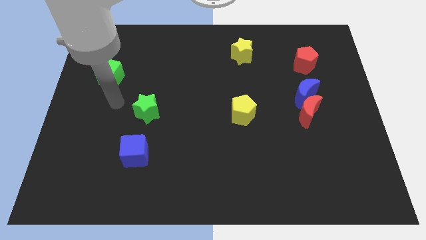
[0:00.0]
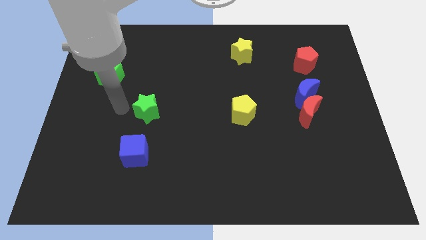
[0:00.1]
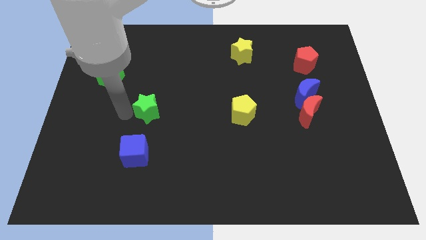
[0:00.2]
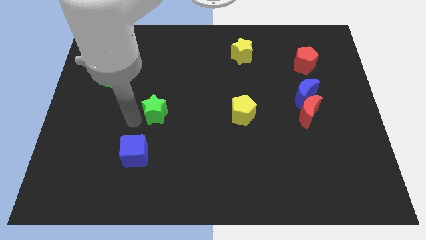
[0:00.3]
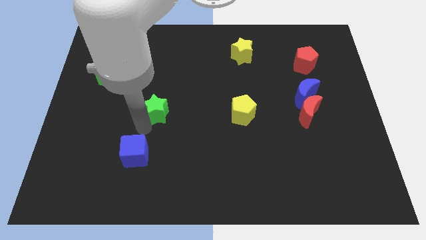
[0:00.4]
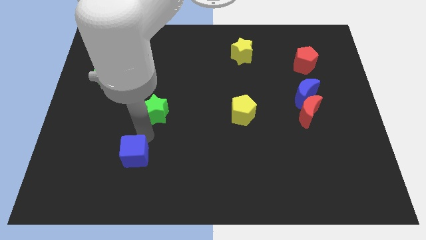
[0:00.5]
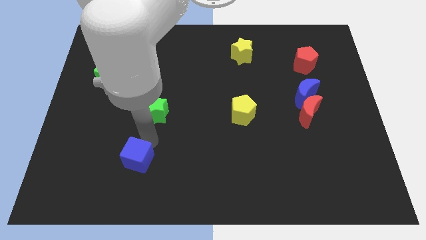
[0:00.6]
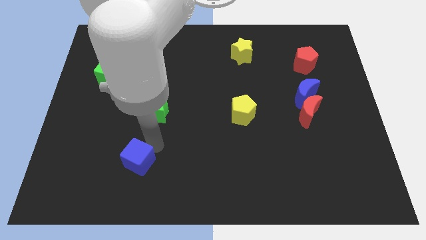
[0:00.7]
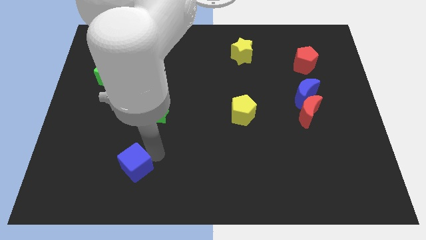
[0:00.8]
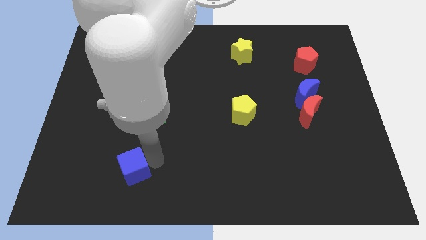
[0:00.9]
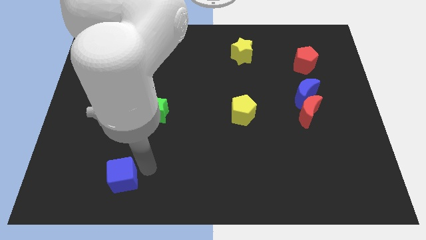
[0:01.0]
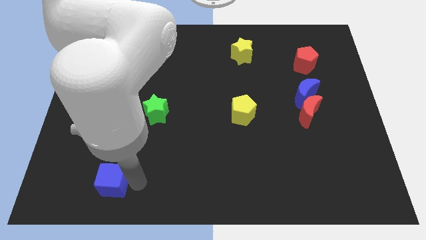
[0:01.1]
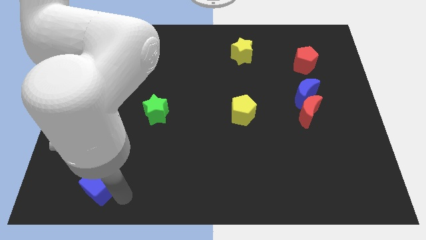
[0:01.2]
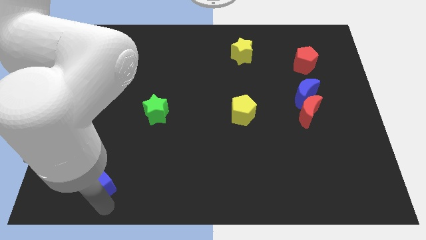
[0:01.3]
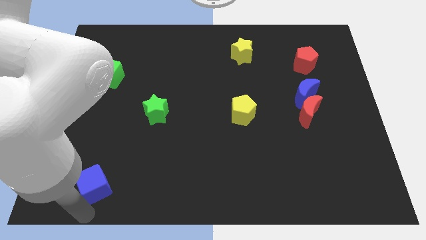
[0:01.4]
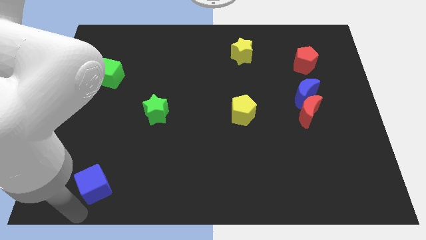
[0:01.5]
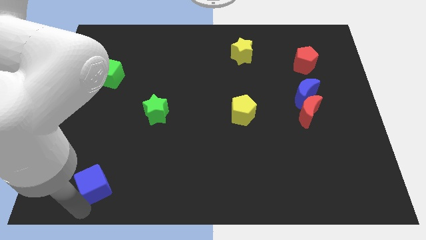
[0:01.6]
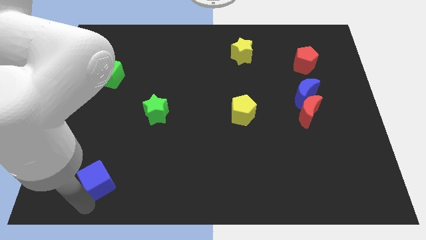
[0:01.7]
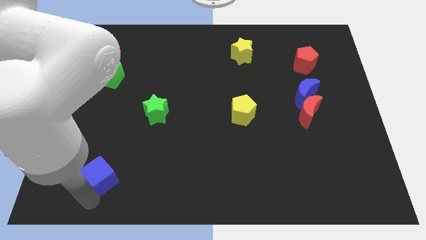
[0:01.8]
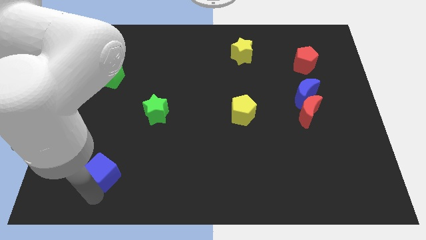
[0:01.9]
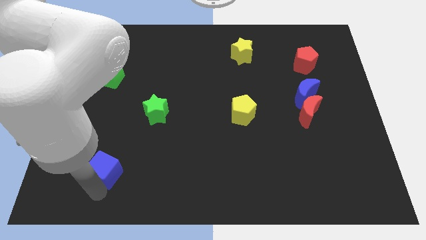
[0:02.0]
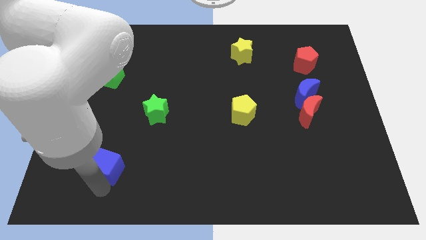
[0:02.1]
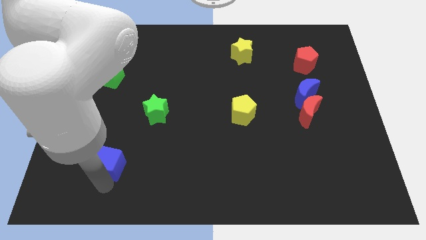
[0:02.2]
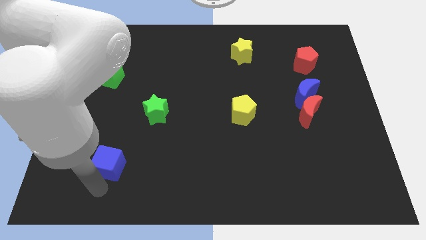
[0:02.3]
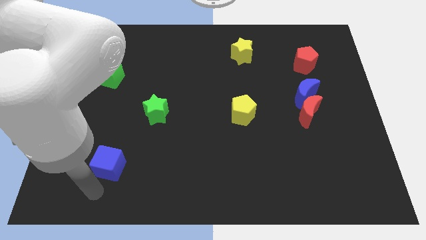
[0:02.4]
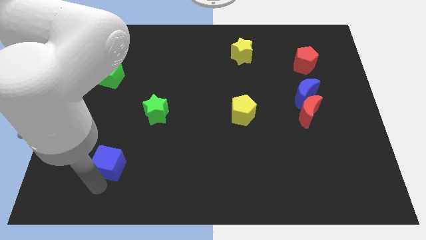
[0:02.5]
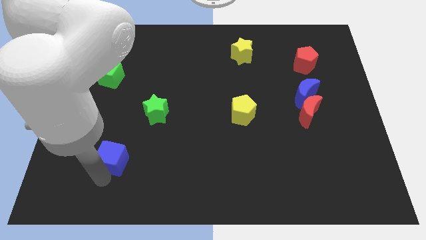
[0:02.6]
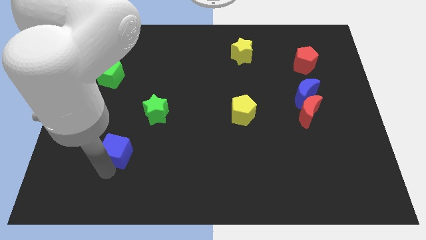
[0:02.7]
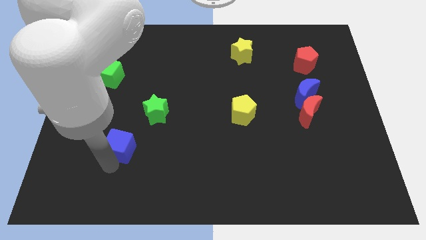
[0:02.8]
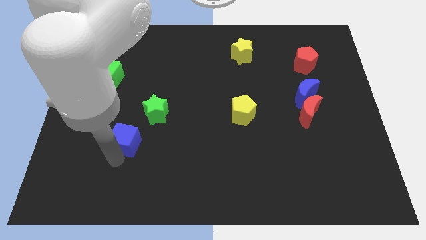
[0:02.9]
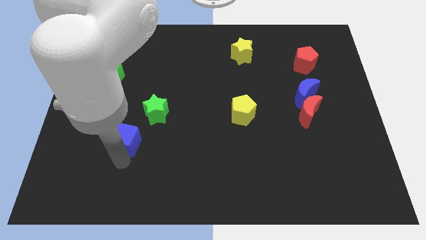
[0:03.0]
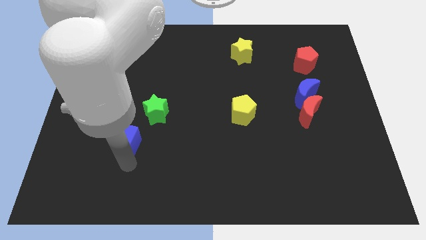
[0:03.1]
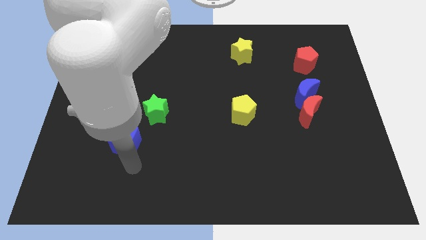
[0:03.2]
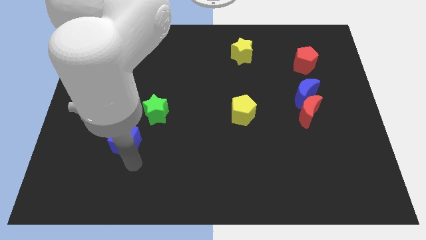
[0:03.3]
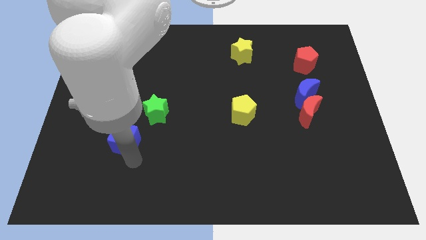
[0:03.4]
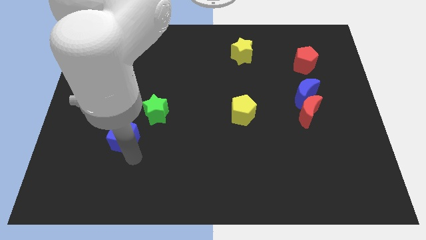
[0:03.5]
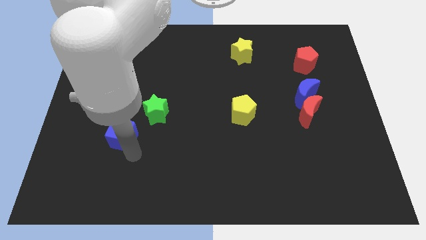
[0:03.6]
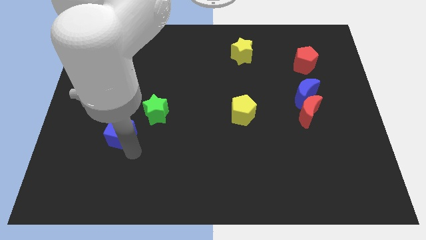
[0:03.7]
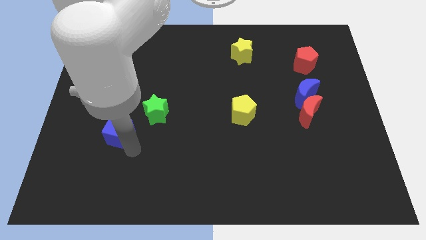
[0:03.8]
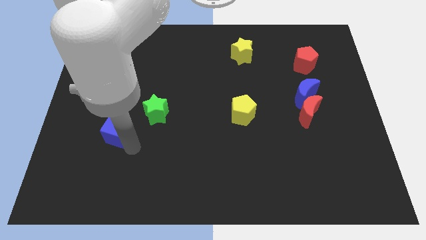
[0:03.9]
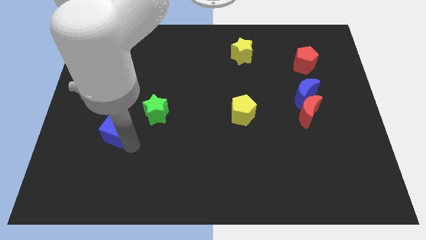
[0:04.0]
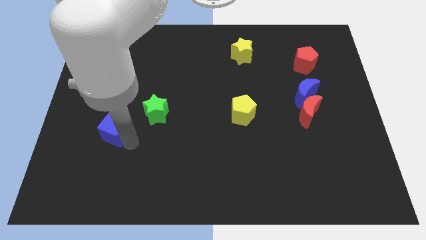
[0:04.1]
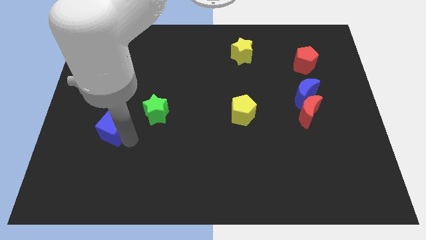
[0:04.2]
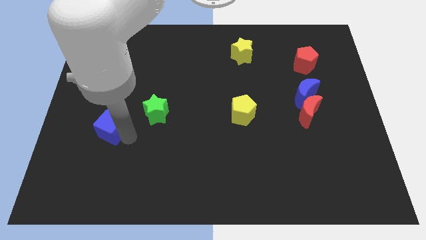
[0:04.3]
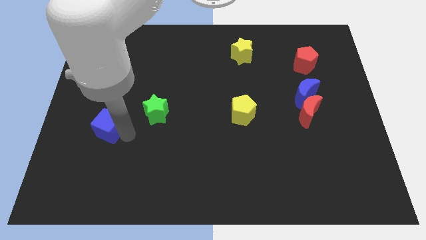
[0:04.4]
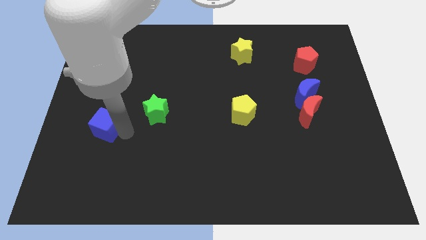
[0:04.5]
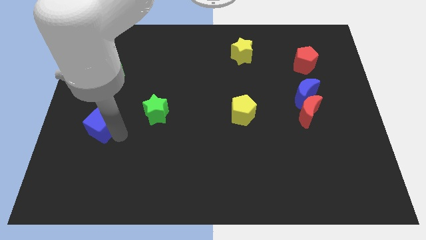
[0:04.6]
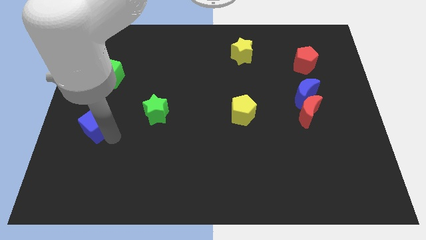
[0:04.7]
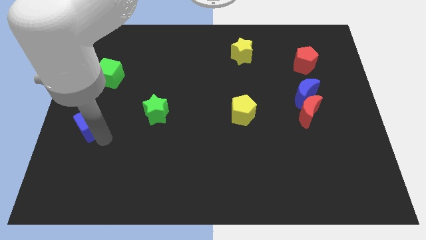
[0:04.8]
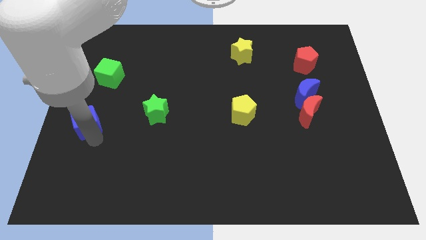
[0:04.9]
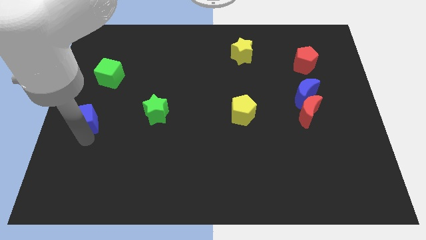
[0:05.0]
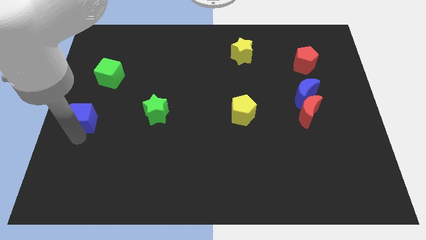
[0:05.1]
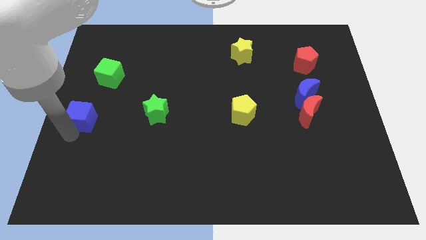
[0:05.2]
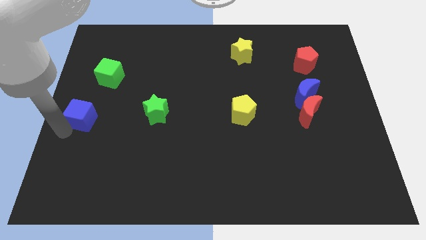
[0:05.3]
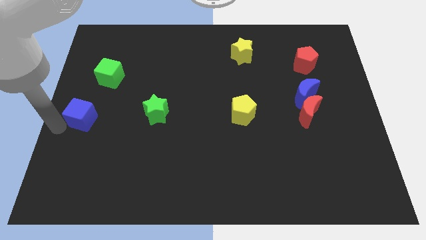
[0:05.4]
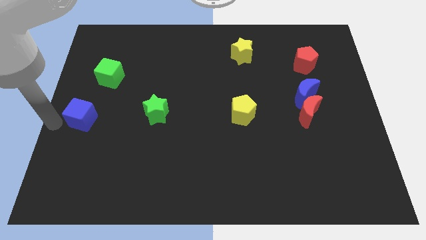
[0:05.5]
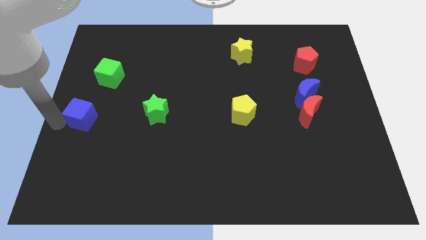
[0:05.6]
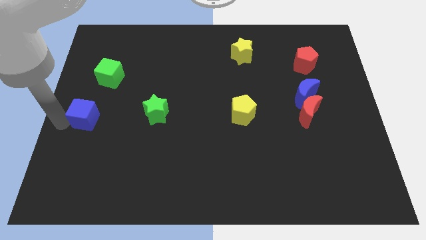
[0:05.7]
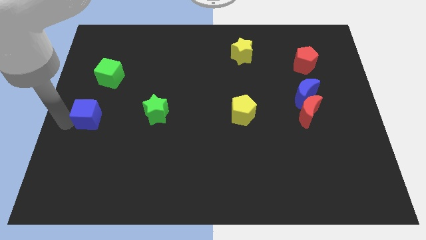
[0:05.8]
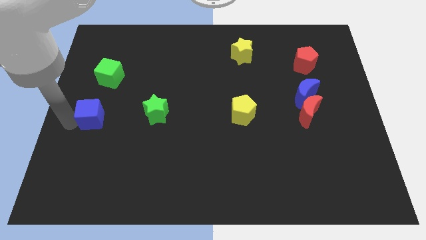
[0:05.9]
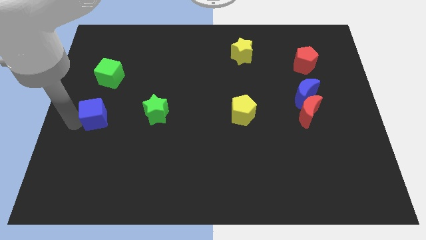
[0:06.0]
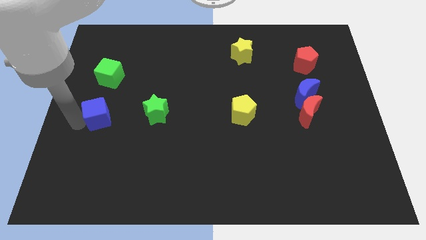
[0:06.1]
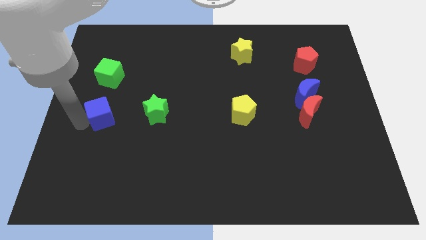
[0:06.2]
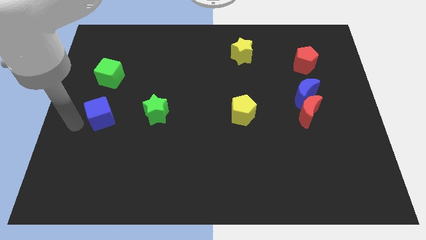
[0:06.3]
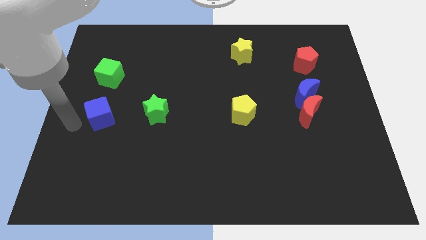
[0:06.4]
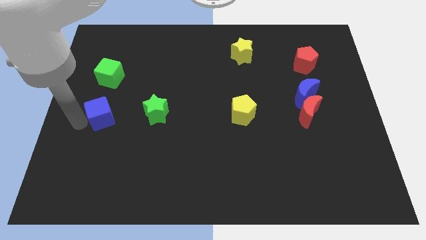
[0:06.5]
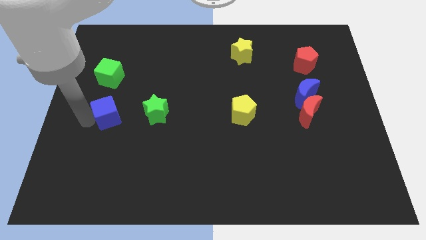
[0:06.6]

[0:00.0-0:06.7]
slightly push the blue cube up

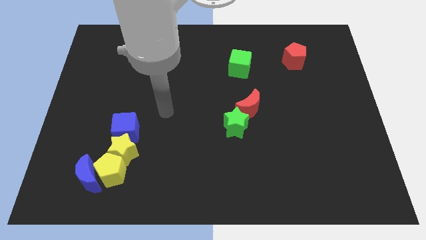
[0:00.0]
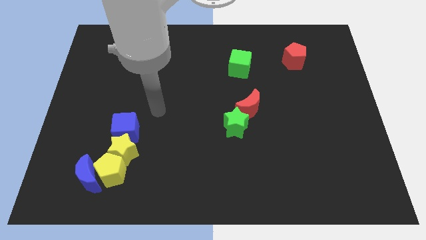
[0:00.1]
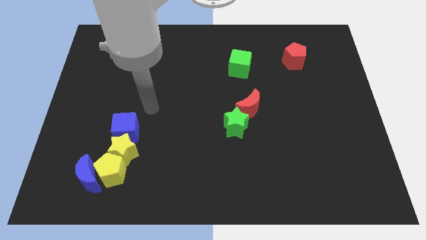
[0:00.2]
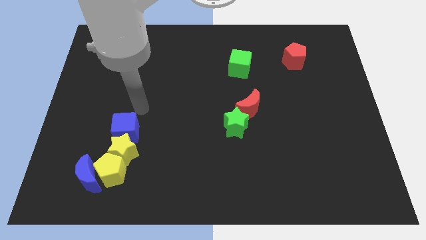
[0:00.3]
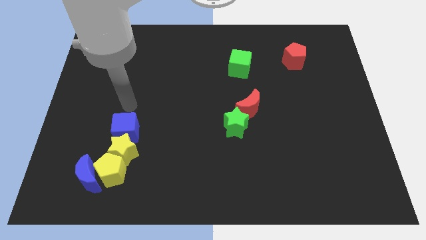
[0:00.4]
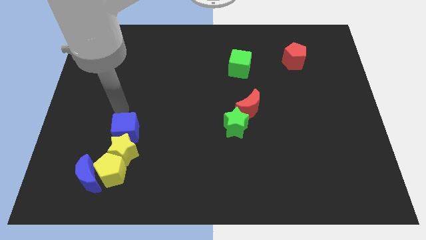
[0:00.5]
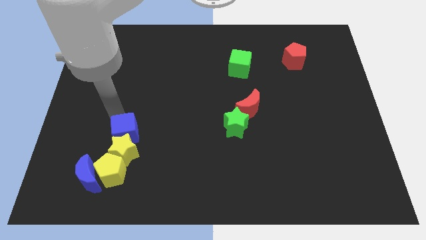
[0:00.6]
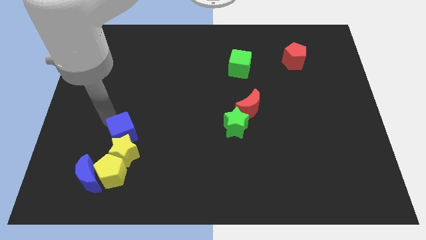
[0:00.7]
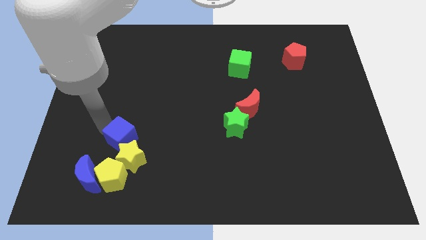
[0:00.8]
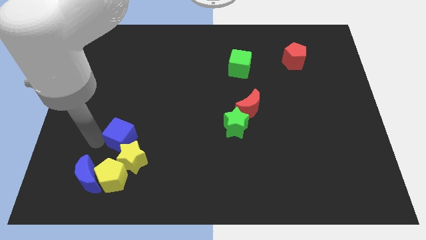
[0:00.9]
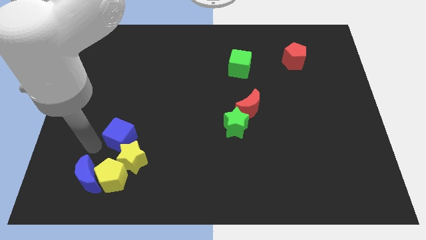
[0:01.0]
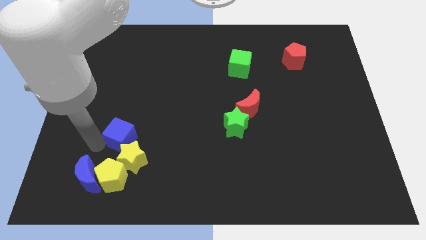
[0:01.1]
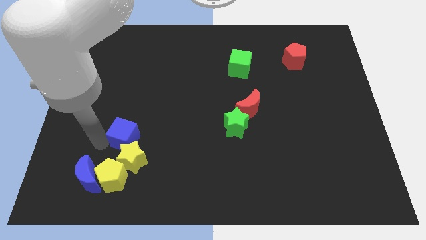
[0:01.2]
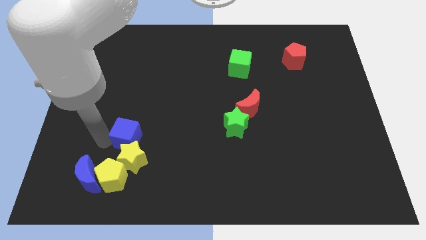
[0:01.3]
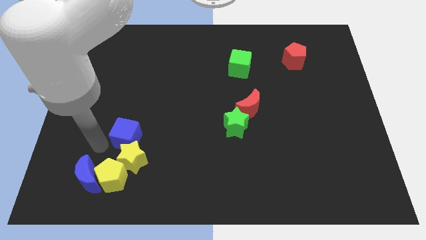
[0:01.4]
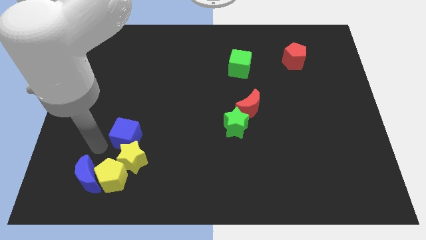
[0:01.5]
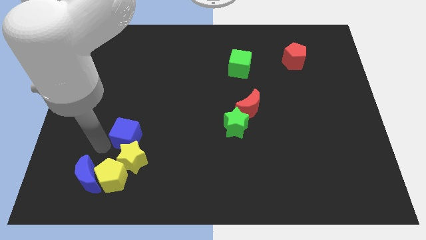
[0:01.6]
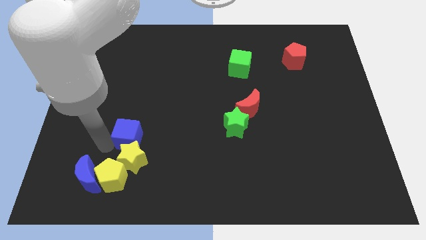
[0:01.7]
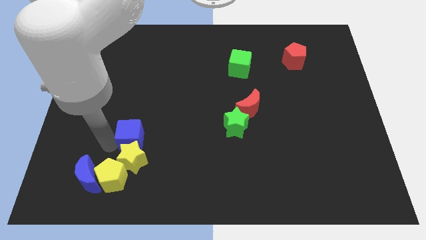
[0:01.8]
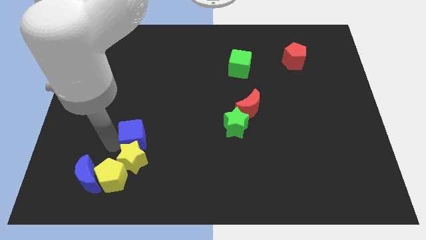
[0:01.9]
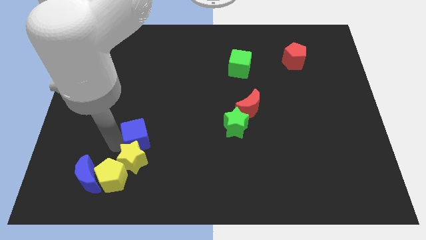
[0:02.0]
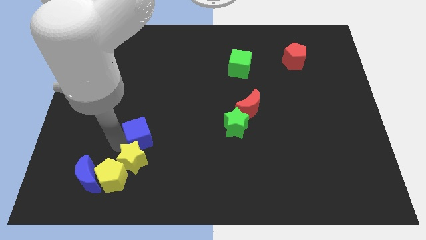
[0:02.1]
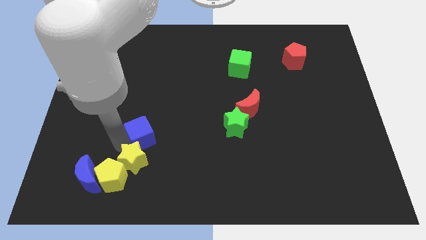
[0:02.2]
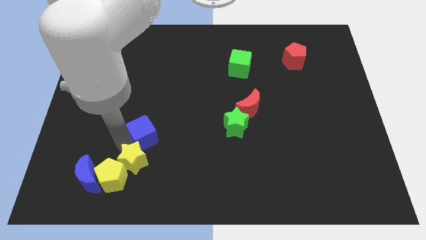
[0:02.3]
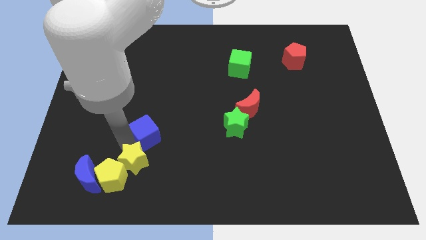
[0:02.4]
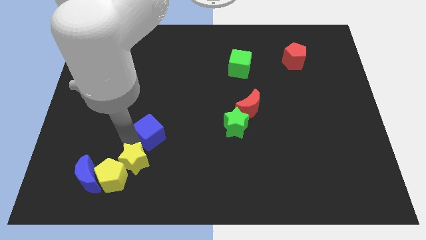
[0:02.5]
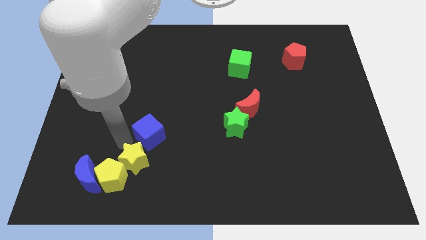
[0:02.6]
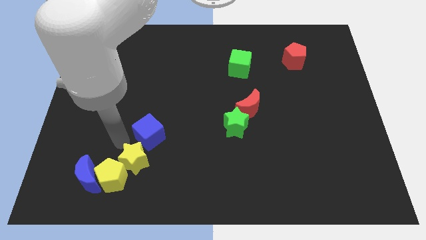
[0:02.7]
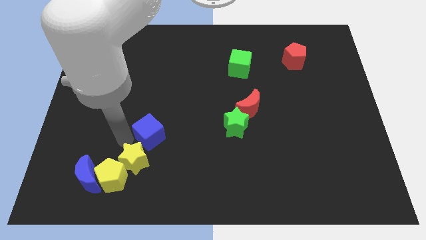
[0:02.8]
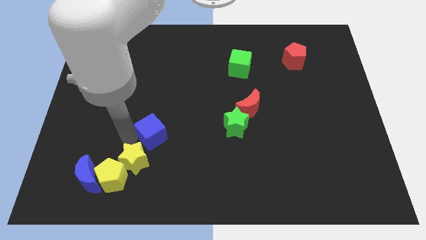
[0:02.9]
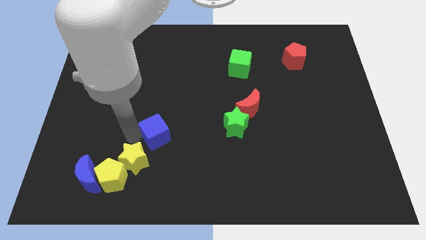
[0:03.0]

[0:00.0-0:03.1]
move the blue cube right a little bit
